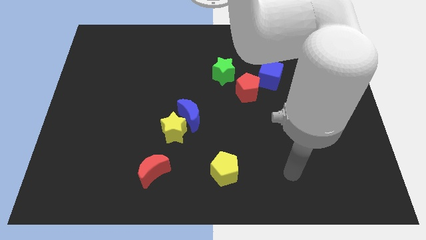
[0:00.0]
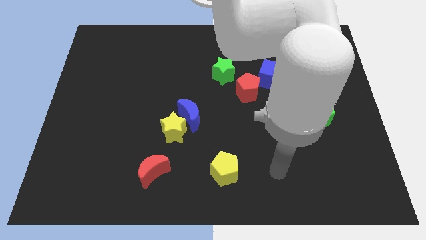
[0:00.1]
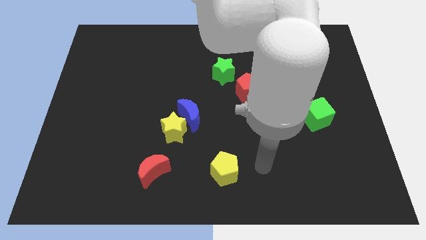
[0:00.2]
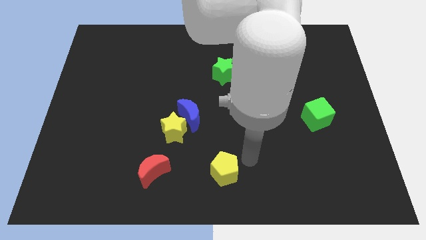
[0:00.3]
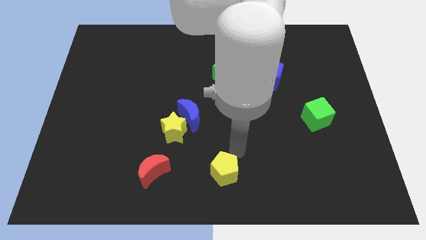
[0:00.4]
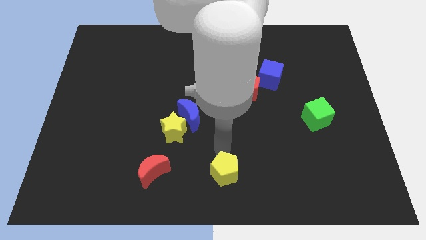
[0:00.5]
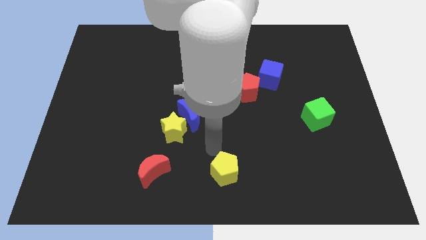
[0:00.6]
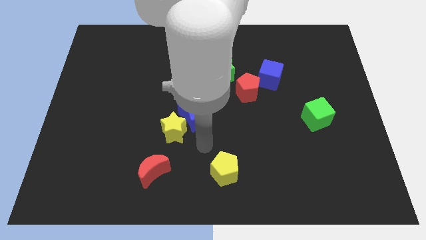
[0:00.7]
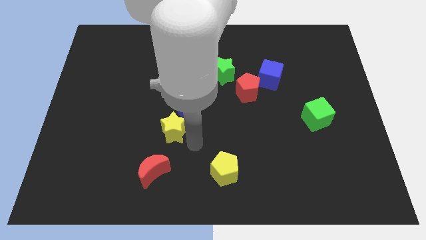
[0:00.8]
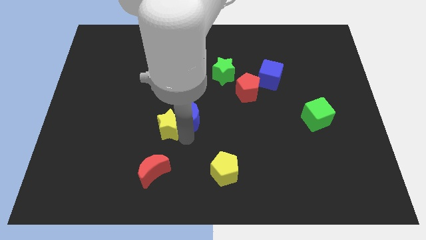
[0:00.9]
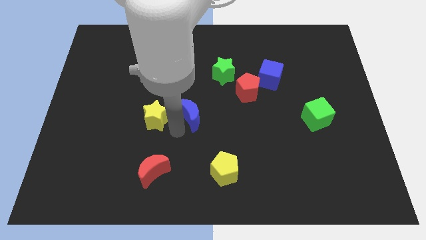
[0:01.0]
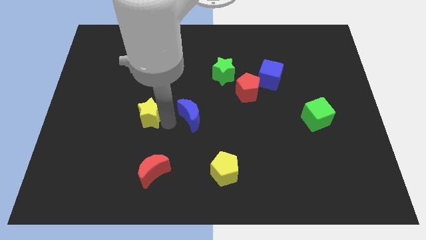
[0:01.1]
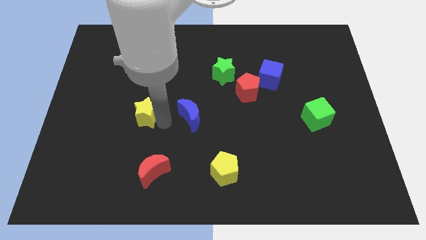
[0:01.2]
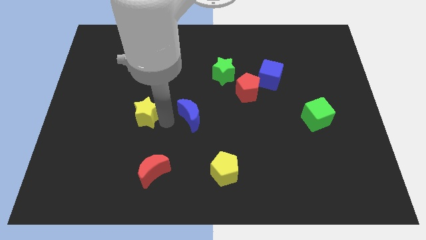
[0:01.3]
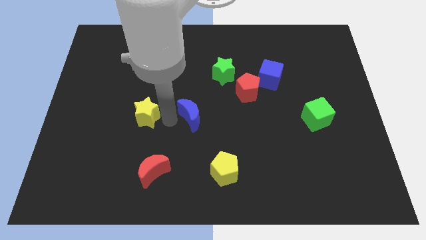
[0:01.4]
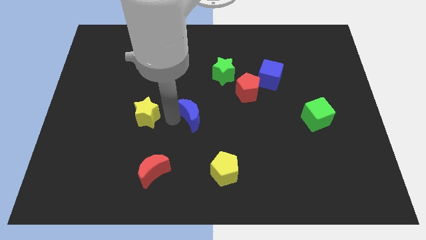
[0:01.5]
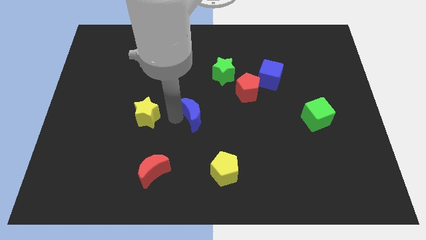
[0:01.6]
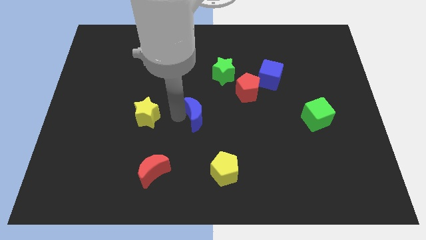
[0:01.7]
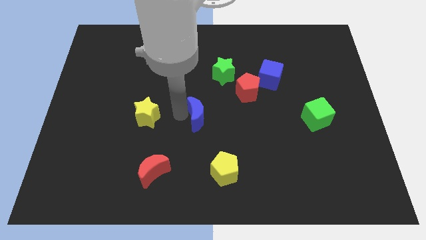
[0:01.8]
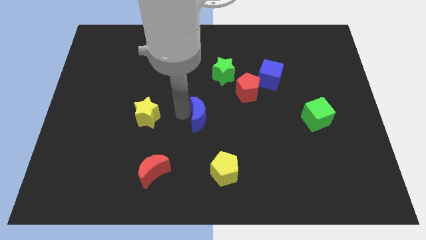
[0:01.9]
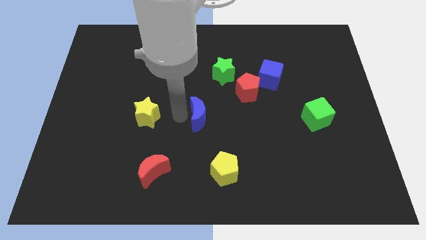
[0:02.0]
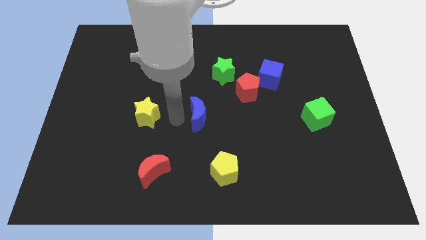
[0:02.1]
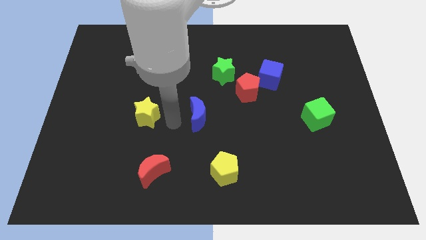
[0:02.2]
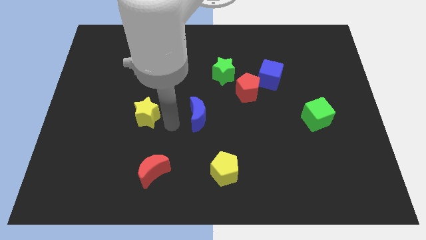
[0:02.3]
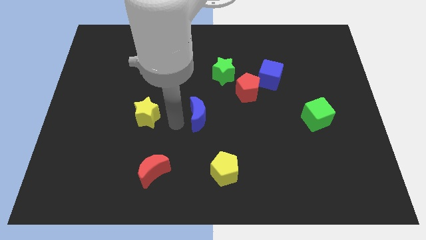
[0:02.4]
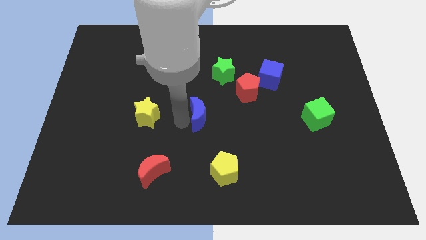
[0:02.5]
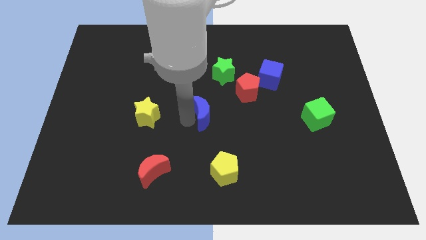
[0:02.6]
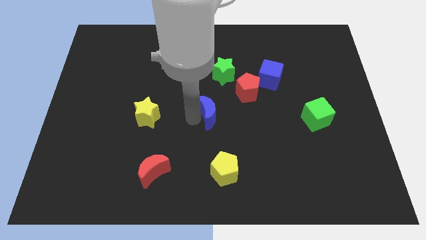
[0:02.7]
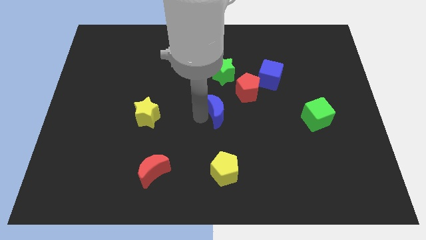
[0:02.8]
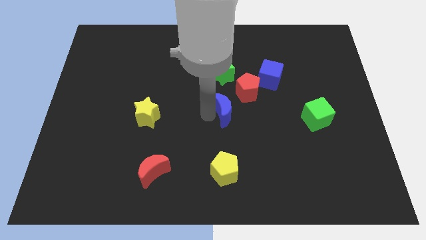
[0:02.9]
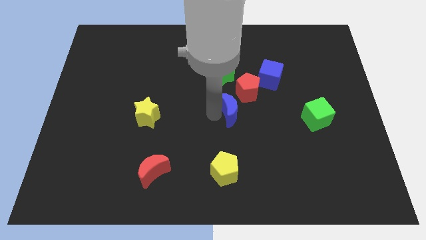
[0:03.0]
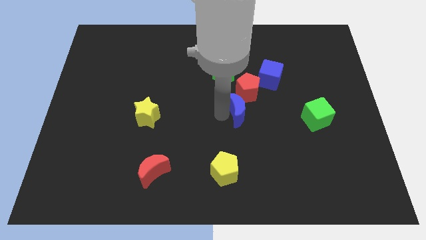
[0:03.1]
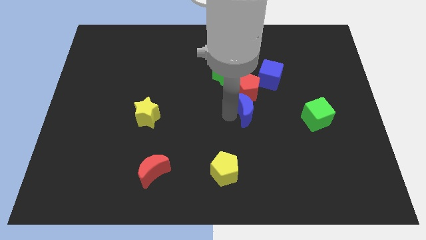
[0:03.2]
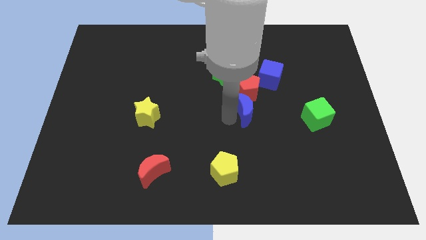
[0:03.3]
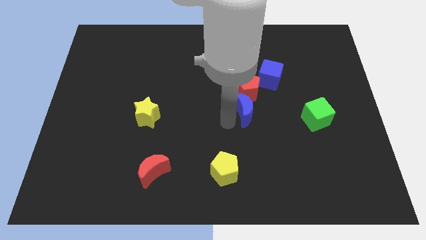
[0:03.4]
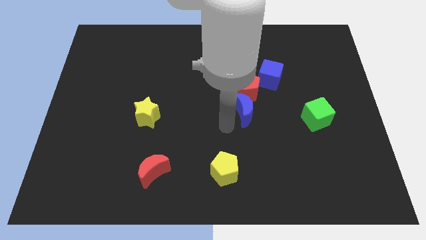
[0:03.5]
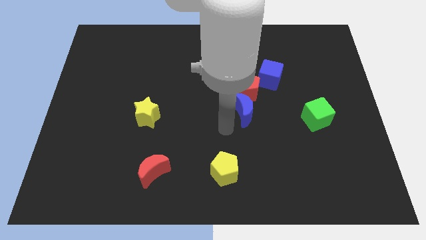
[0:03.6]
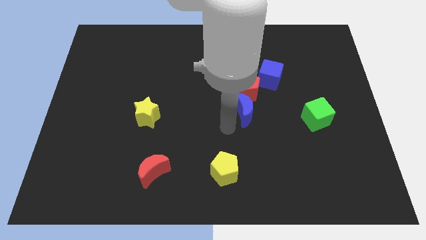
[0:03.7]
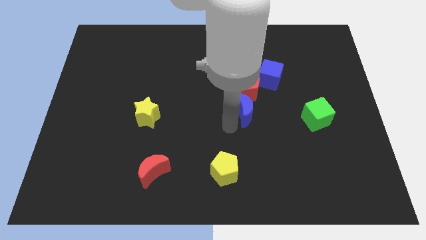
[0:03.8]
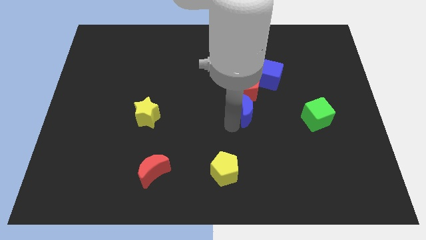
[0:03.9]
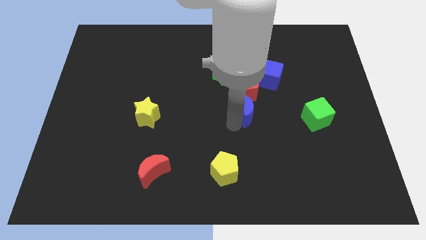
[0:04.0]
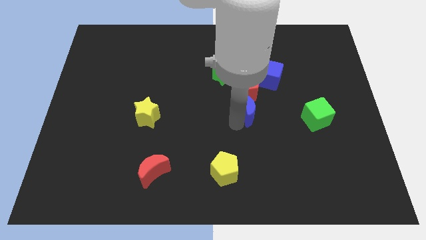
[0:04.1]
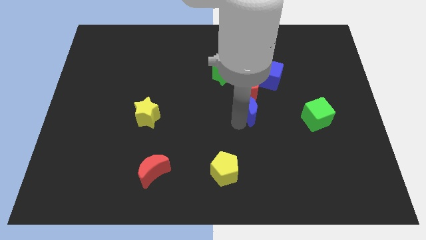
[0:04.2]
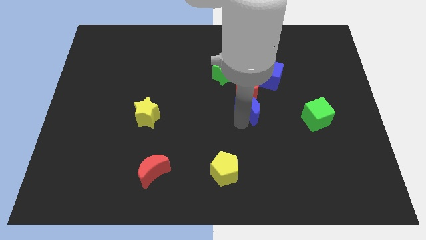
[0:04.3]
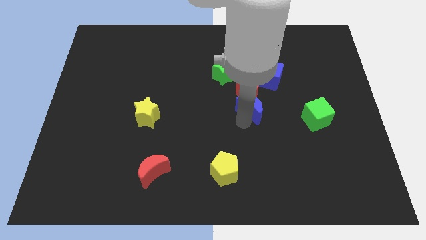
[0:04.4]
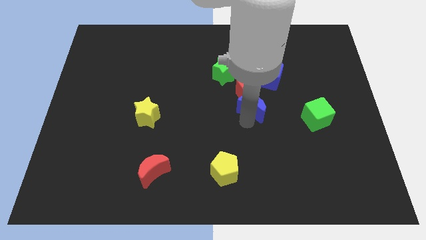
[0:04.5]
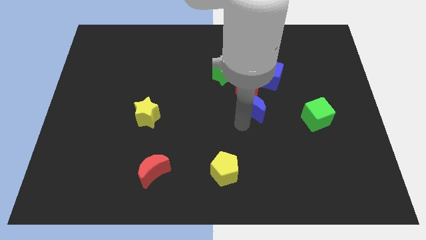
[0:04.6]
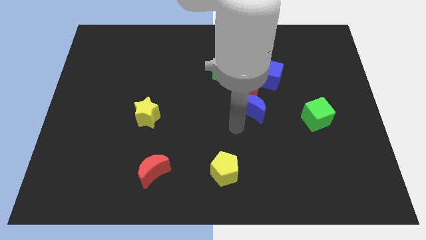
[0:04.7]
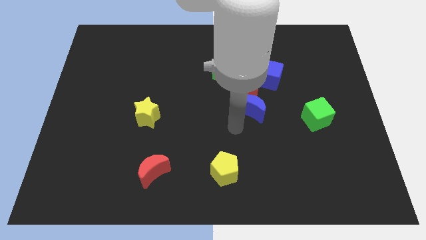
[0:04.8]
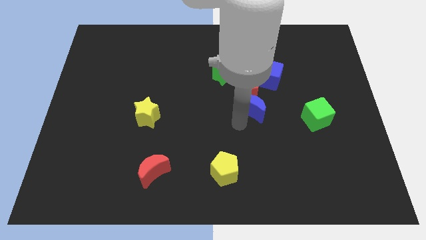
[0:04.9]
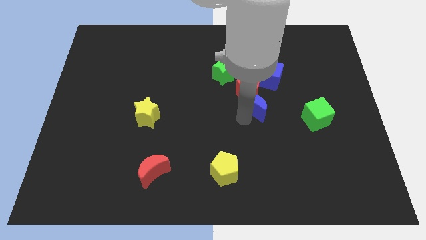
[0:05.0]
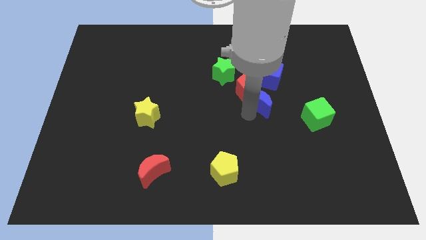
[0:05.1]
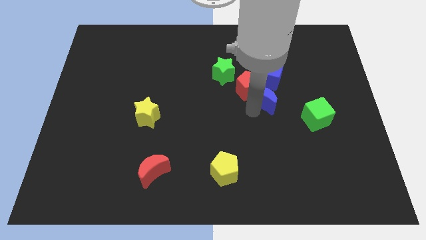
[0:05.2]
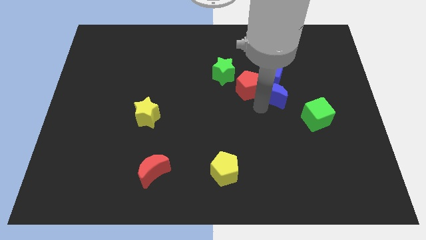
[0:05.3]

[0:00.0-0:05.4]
push the blue moon next to the blue cube

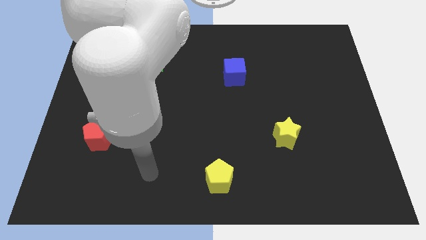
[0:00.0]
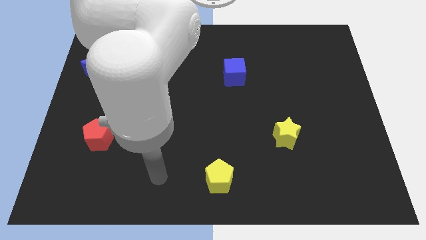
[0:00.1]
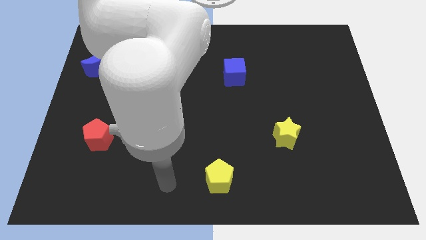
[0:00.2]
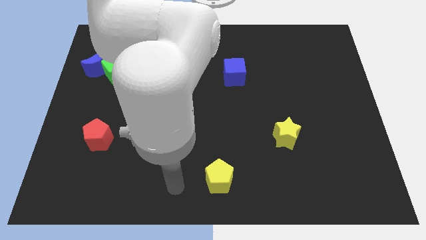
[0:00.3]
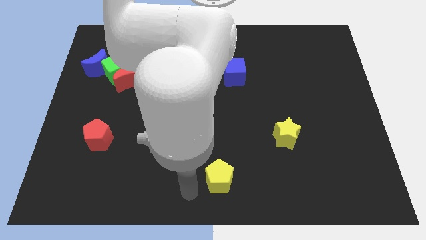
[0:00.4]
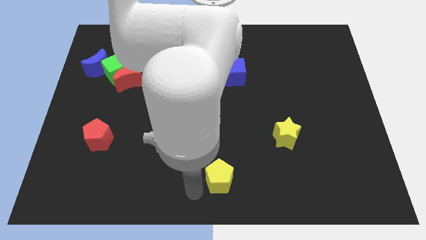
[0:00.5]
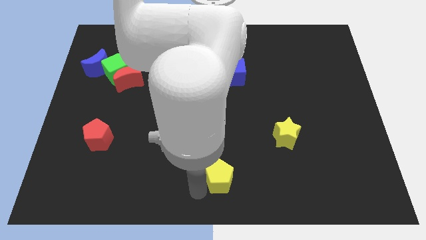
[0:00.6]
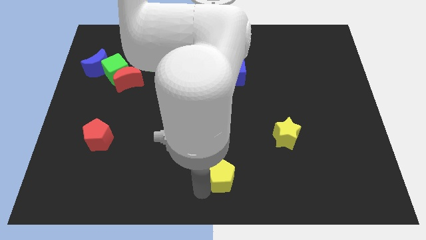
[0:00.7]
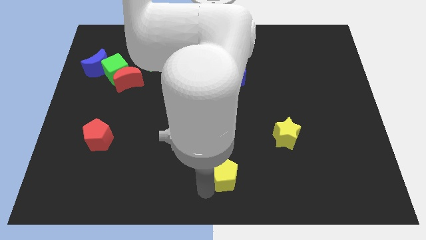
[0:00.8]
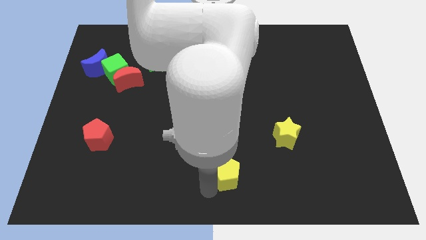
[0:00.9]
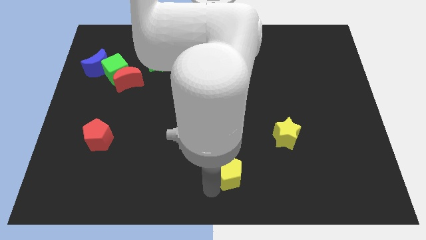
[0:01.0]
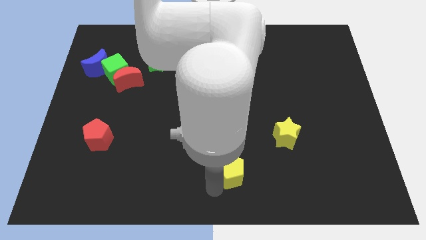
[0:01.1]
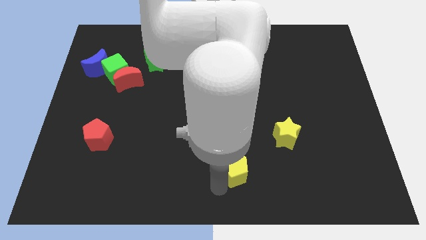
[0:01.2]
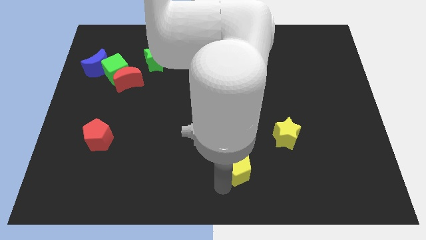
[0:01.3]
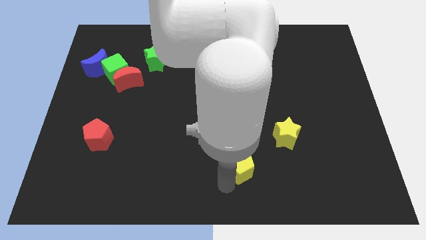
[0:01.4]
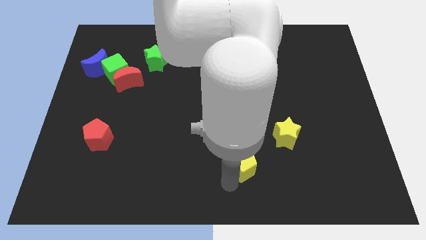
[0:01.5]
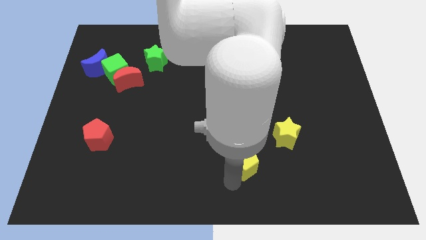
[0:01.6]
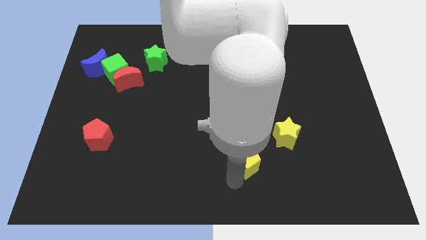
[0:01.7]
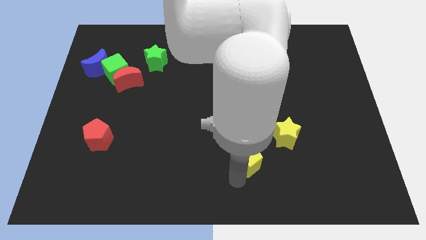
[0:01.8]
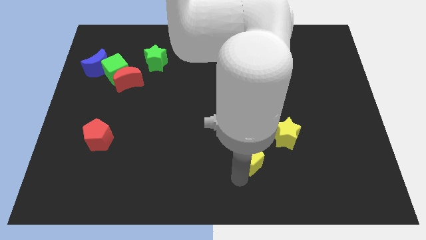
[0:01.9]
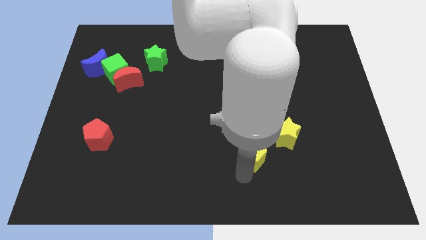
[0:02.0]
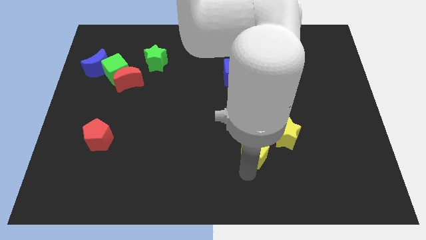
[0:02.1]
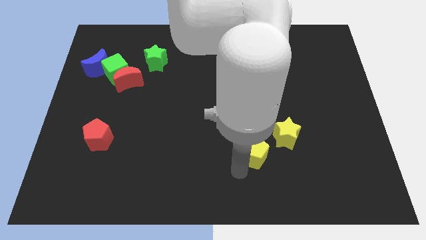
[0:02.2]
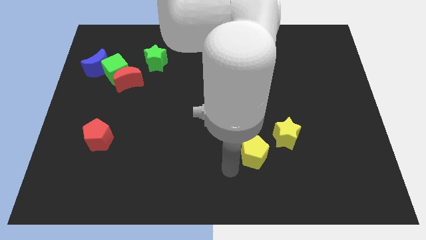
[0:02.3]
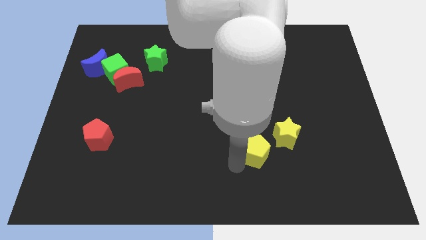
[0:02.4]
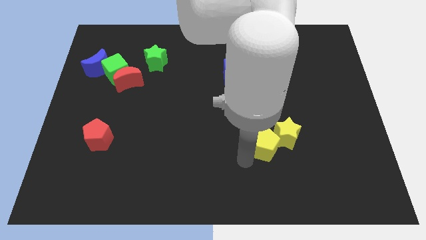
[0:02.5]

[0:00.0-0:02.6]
put the yellow pentagon towards the yellow star

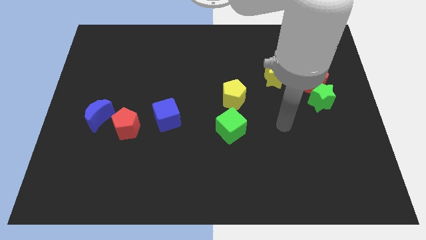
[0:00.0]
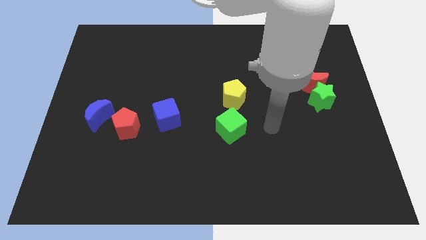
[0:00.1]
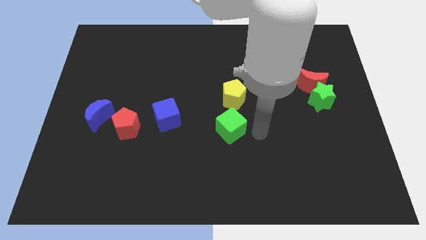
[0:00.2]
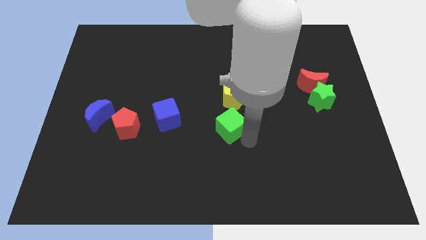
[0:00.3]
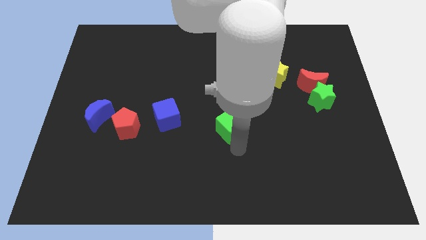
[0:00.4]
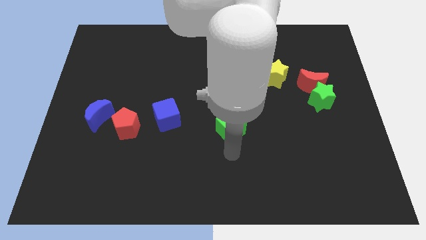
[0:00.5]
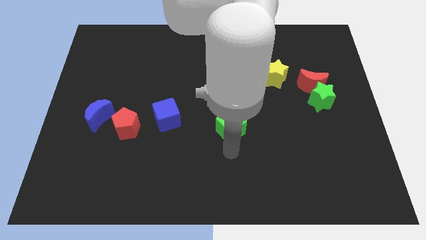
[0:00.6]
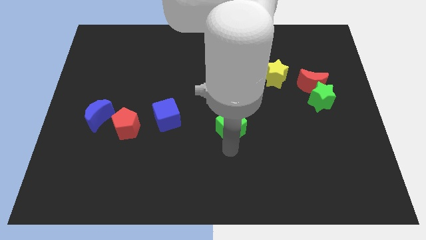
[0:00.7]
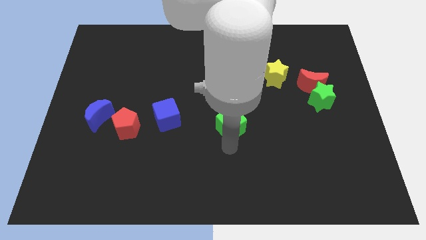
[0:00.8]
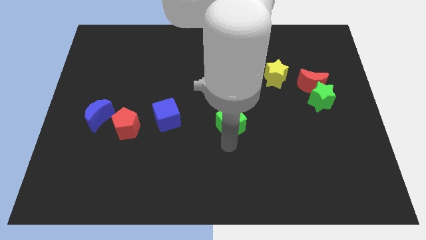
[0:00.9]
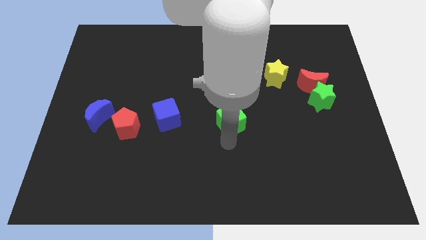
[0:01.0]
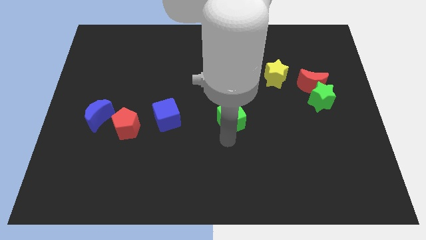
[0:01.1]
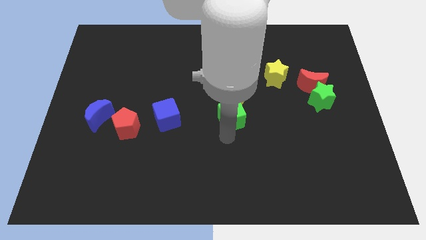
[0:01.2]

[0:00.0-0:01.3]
put the green cube to the yellow pentagon
